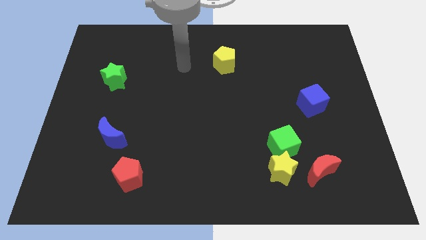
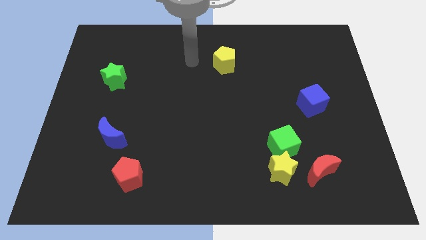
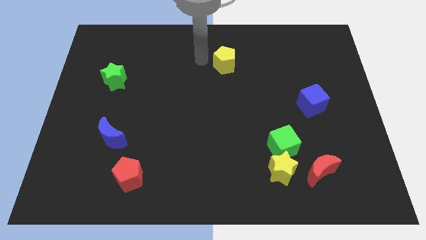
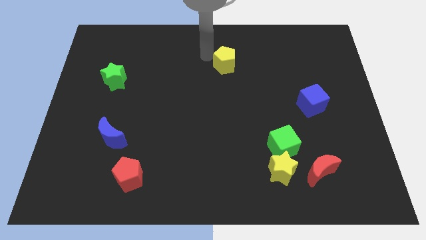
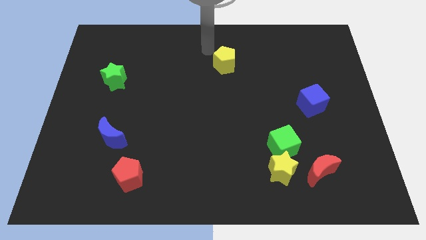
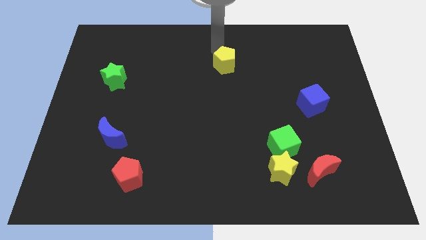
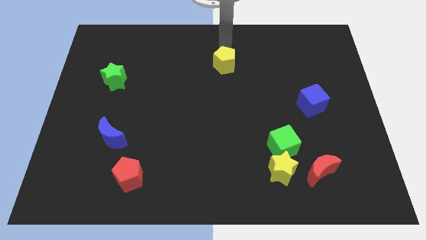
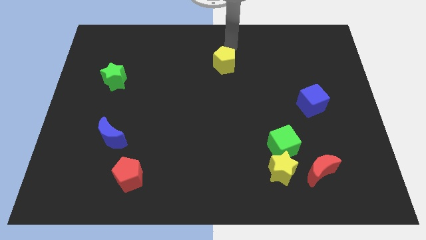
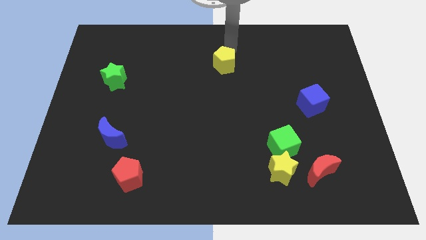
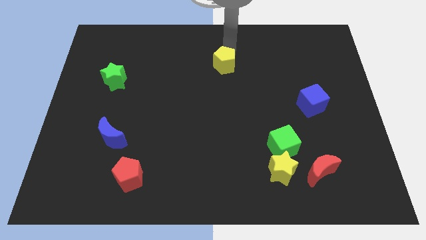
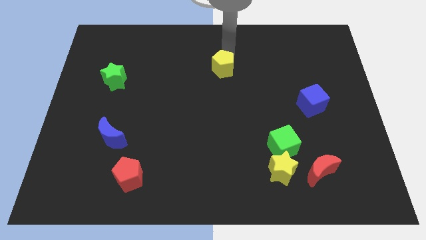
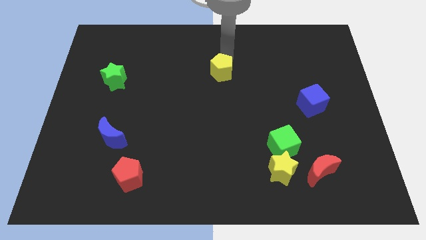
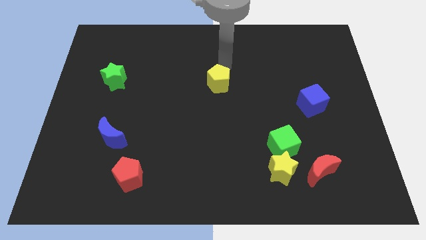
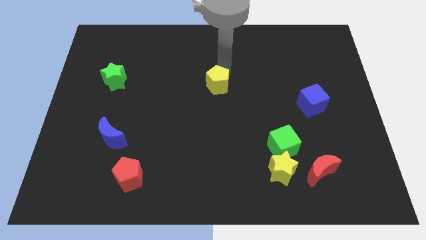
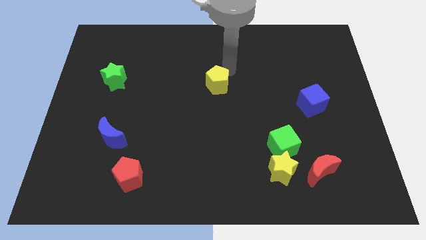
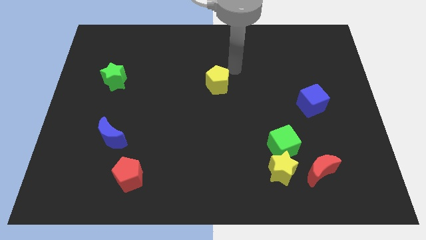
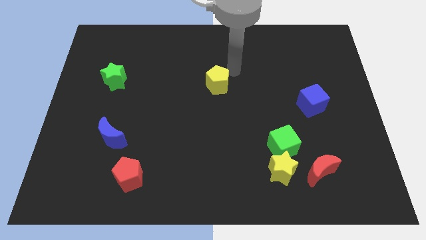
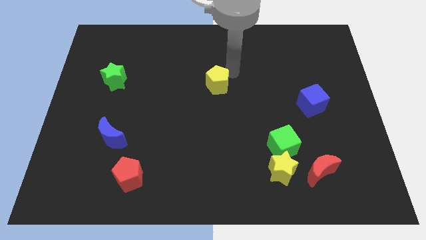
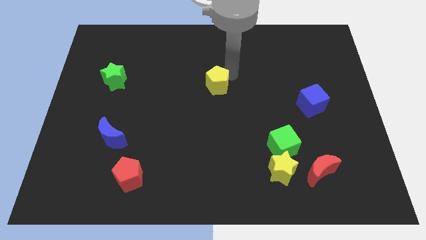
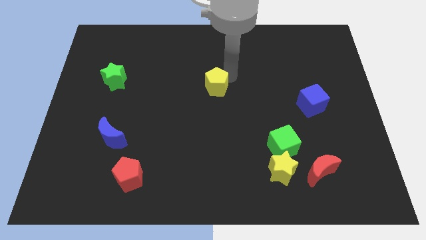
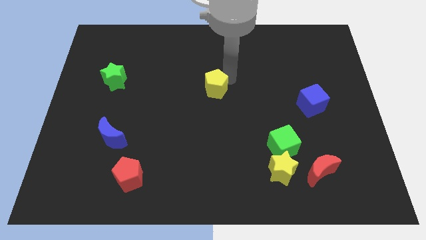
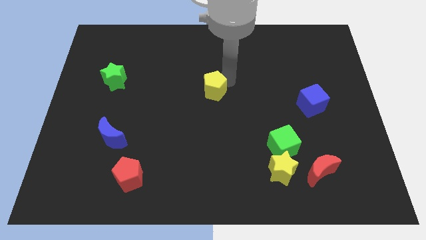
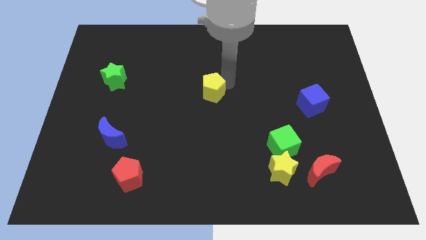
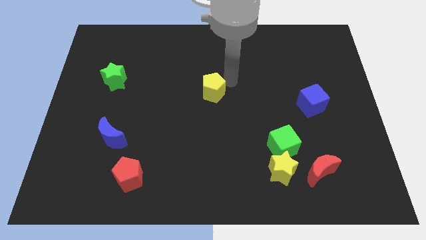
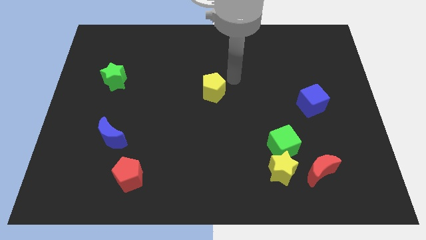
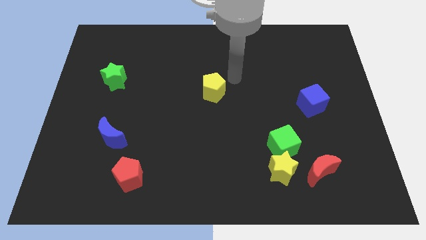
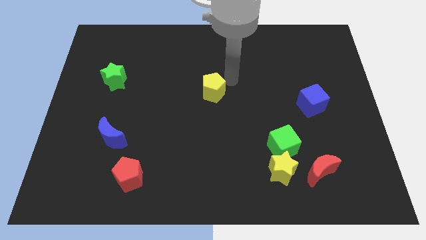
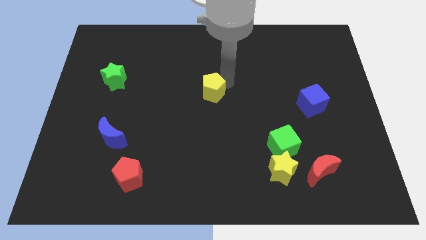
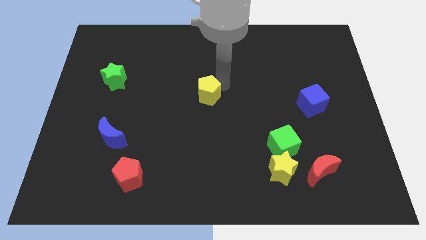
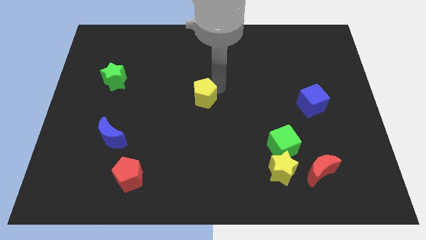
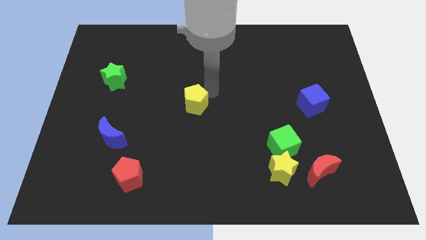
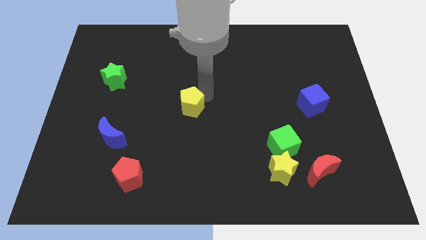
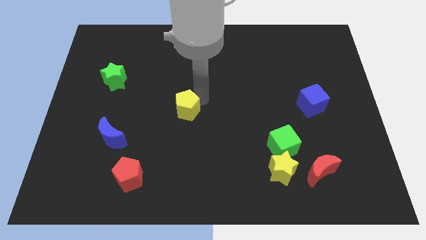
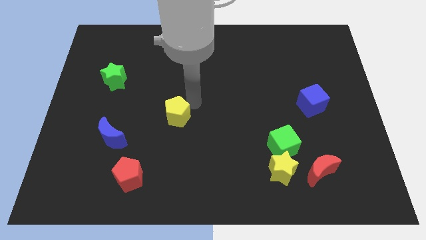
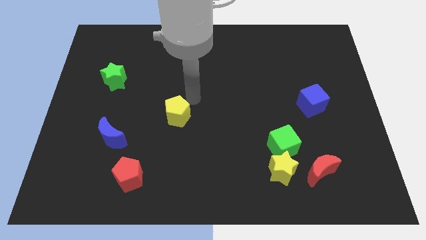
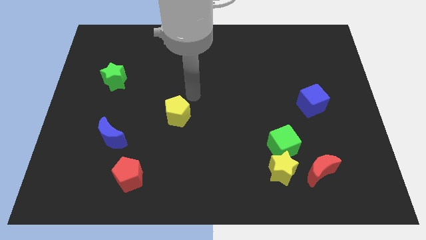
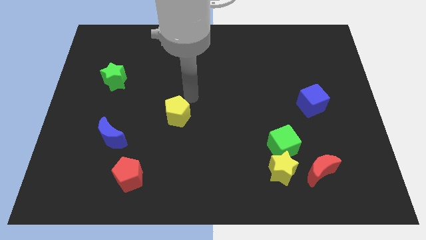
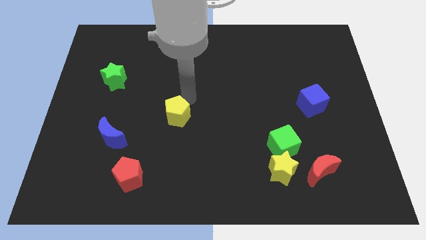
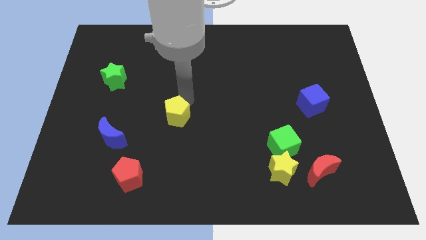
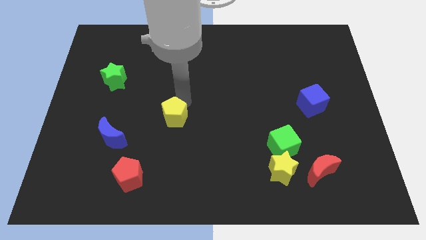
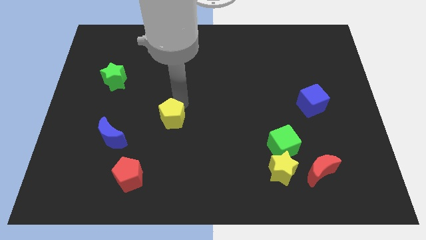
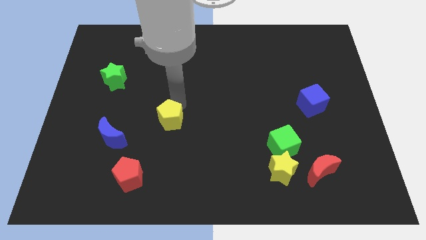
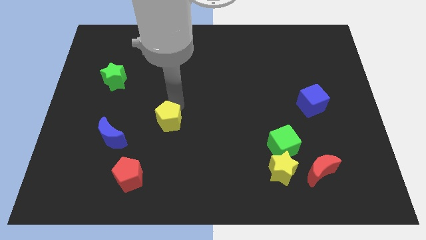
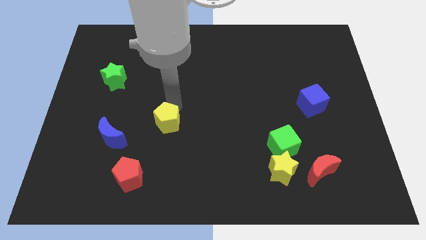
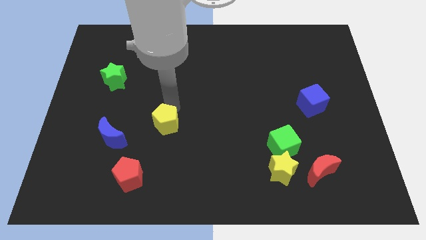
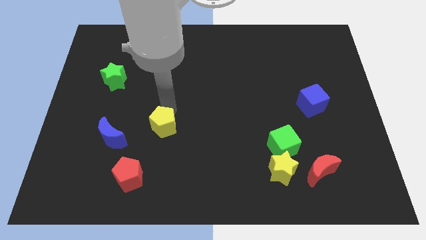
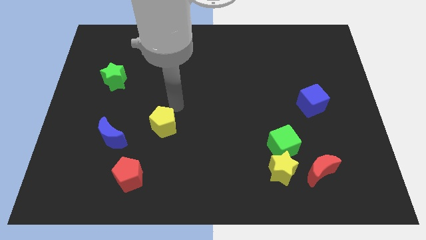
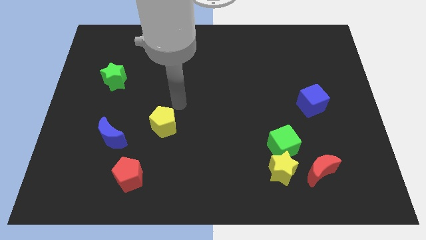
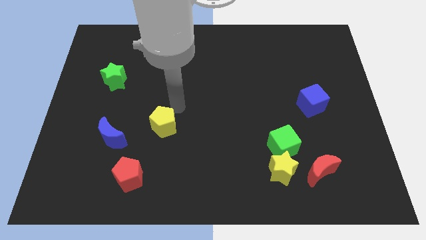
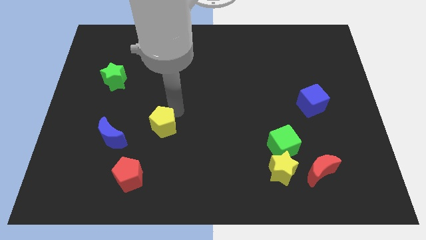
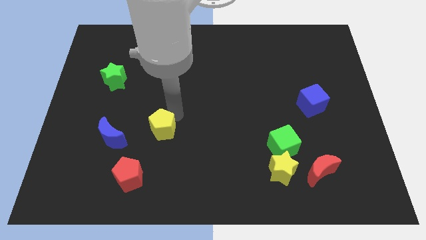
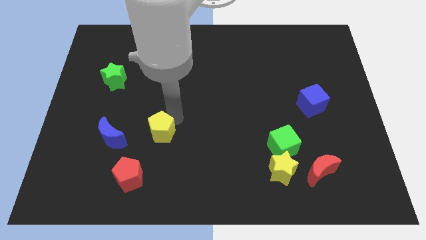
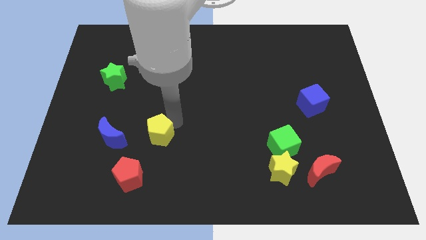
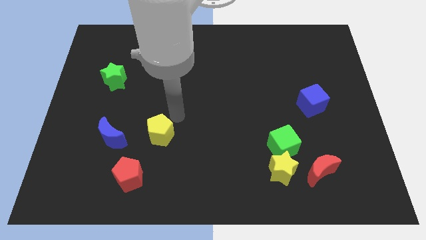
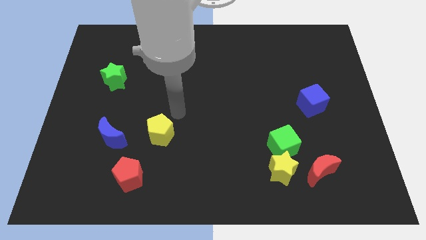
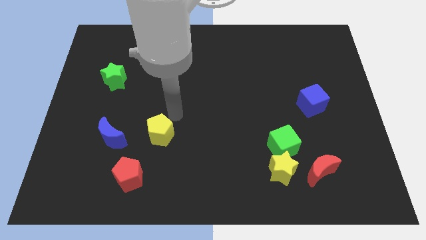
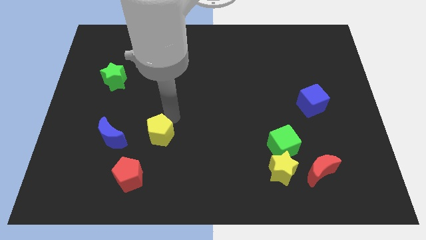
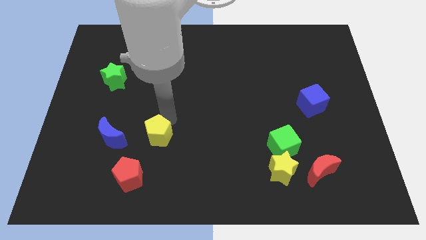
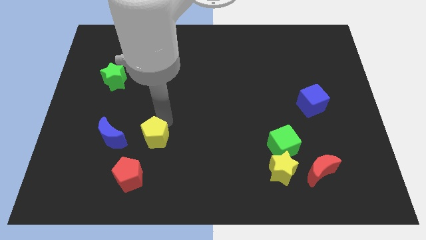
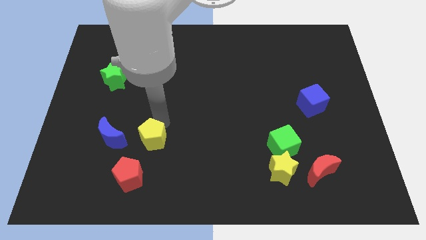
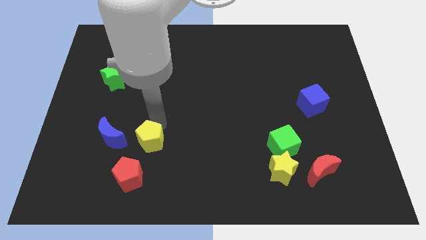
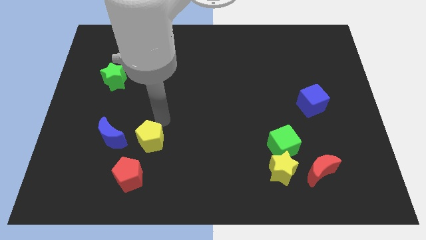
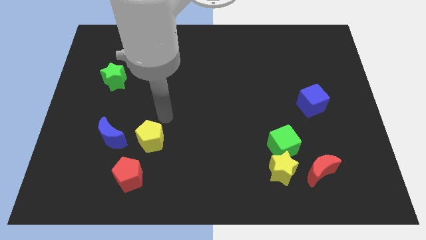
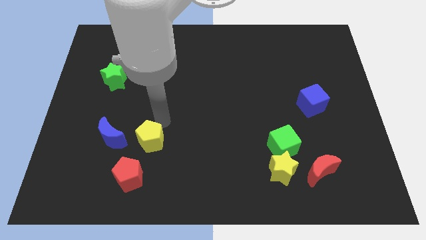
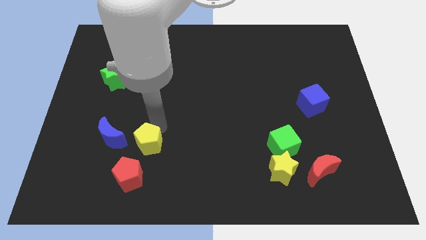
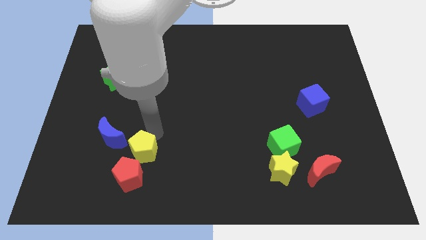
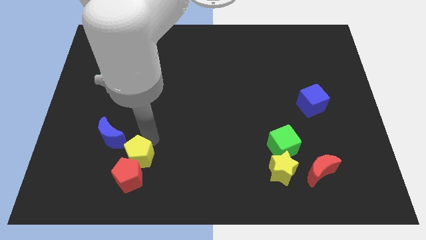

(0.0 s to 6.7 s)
slide the yellow pentagon to the red pentagon

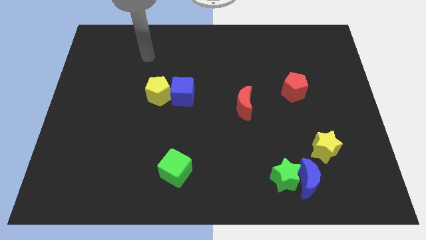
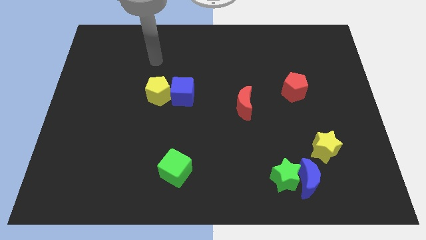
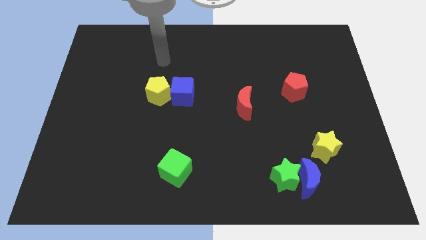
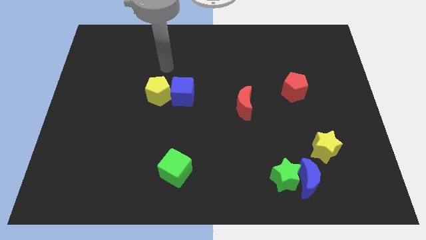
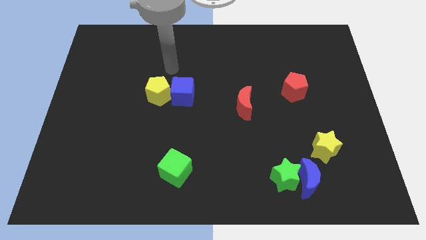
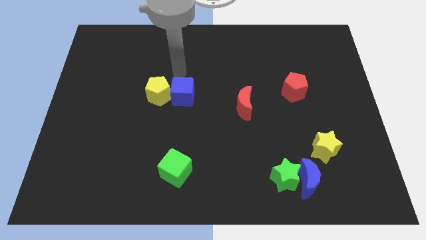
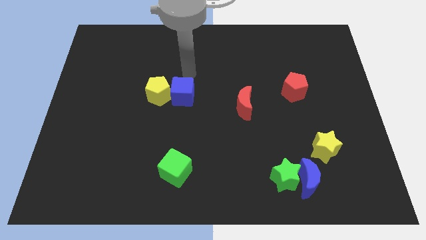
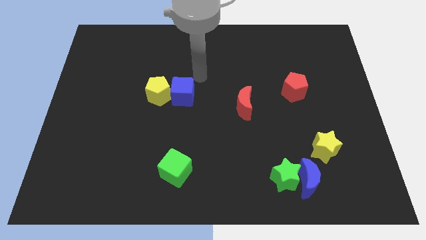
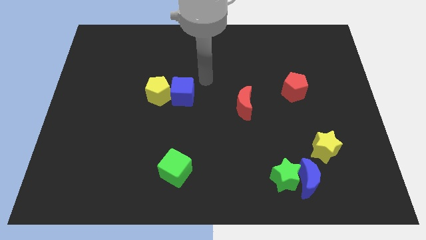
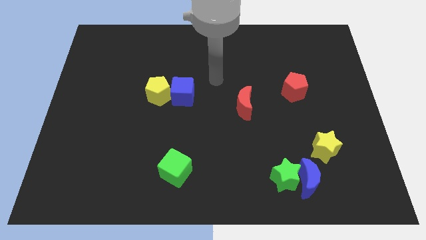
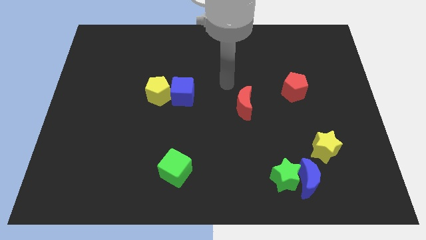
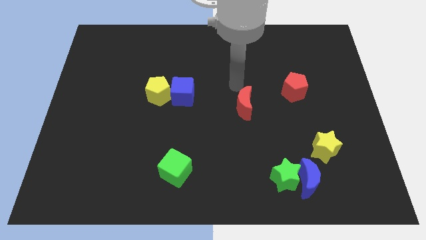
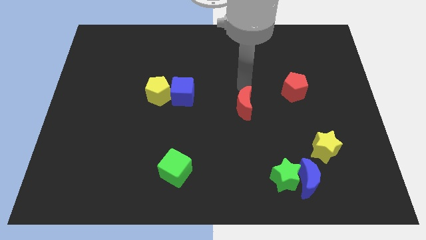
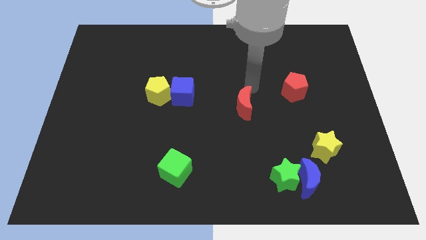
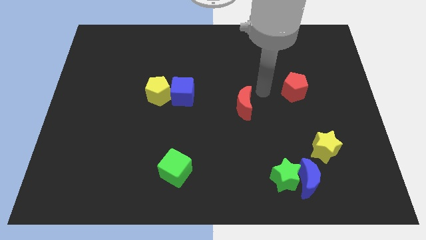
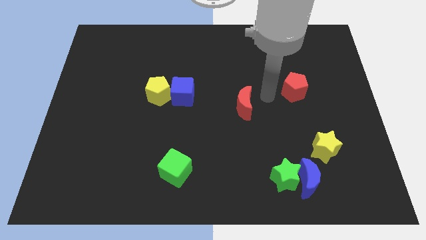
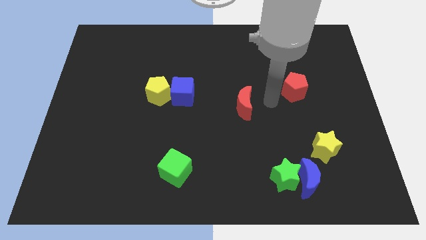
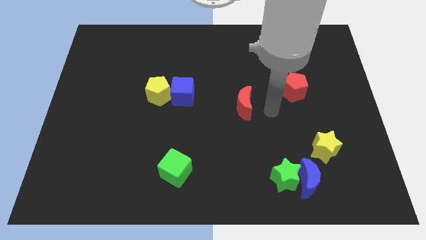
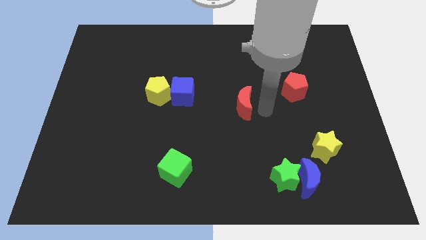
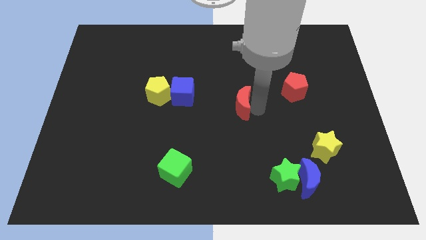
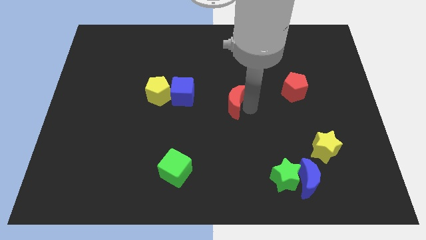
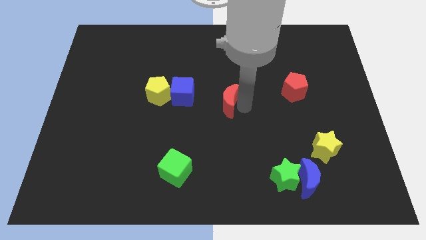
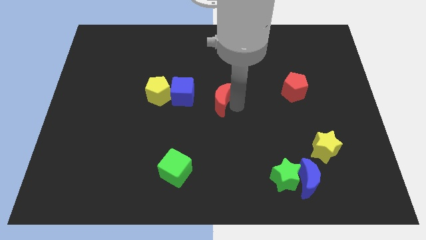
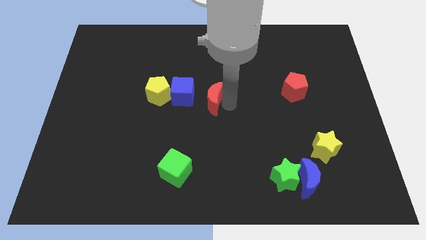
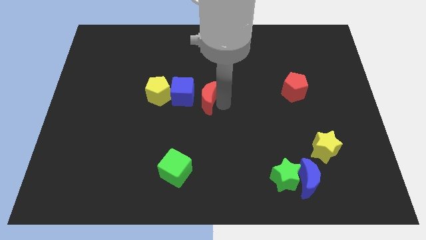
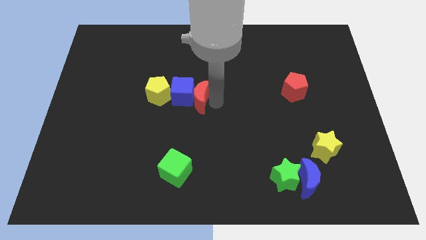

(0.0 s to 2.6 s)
slide the red moon next to the blue cube
